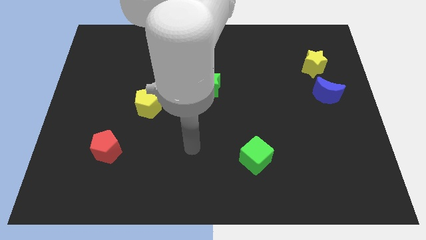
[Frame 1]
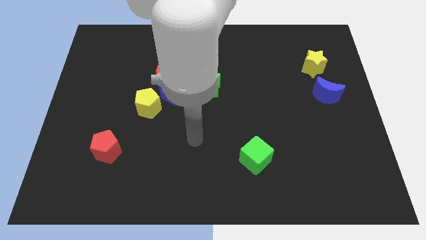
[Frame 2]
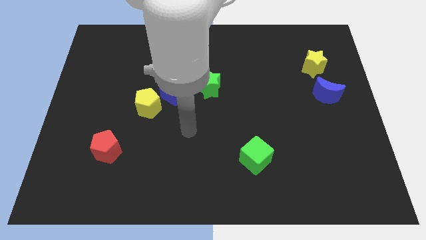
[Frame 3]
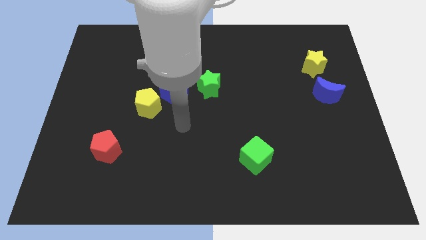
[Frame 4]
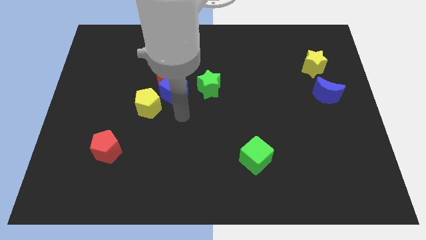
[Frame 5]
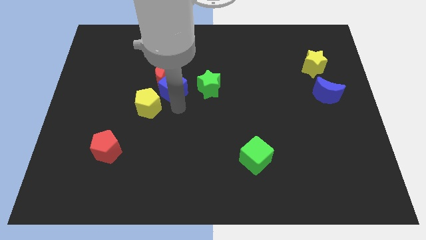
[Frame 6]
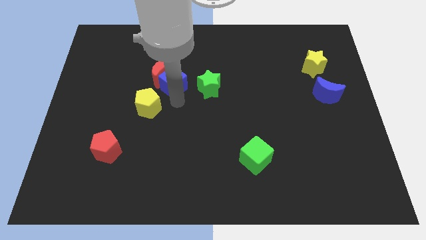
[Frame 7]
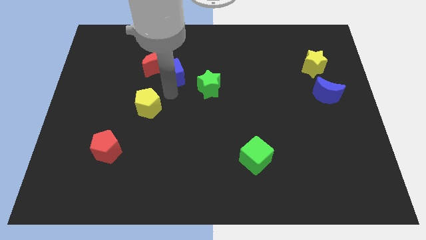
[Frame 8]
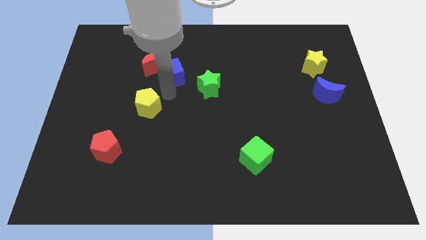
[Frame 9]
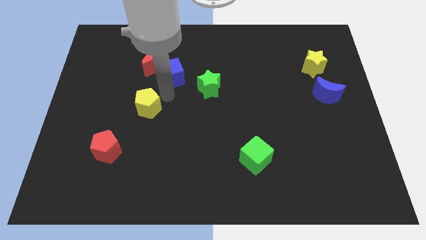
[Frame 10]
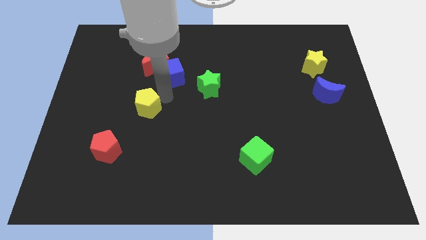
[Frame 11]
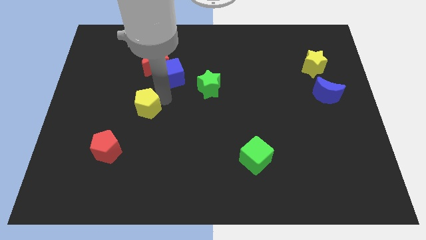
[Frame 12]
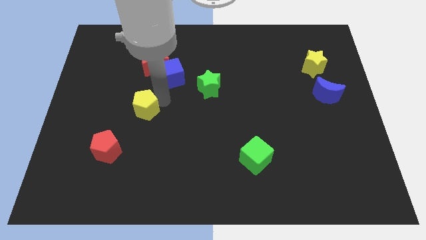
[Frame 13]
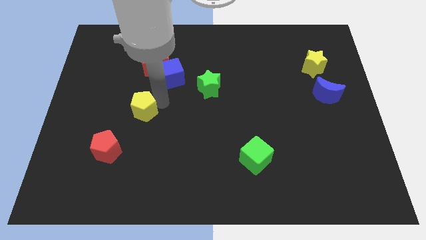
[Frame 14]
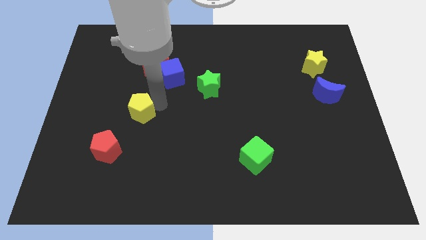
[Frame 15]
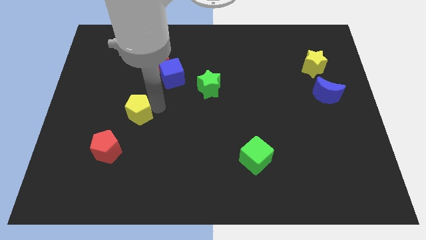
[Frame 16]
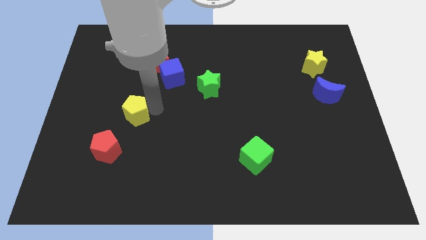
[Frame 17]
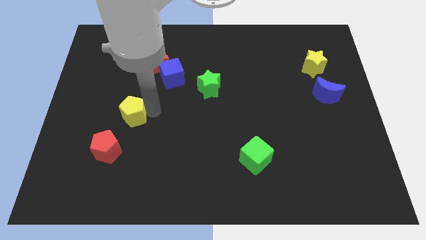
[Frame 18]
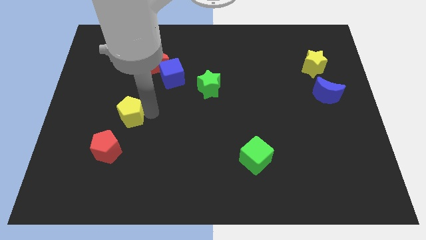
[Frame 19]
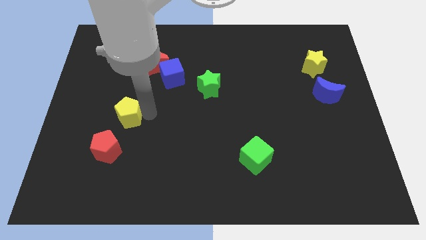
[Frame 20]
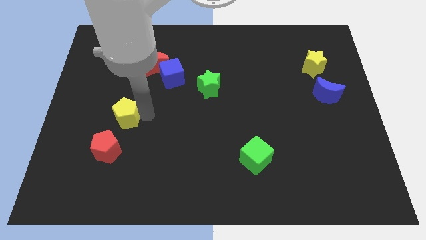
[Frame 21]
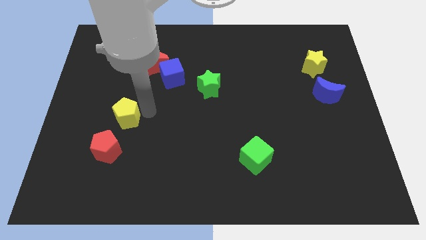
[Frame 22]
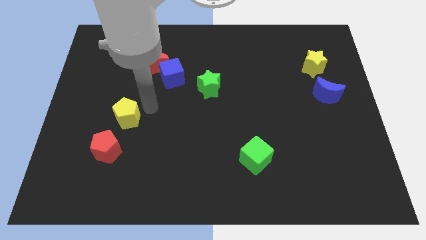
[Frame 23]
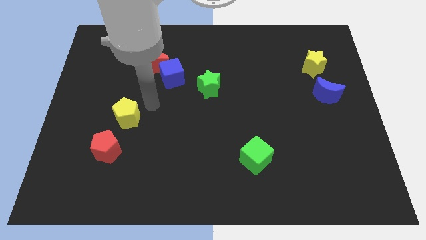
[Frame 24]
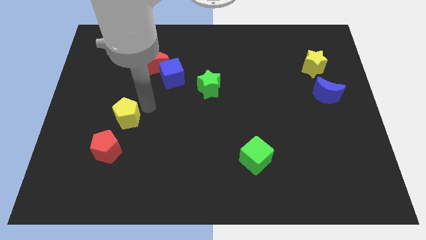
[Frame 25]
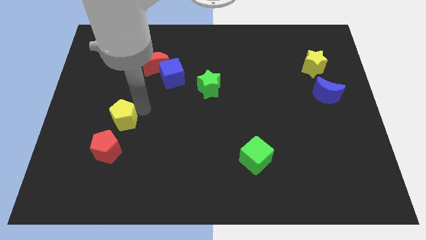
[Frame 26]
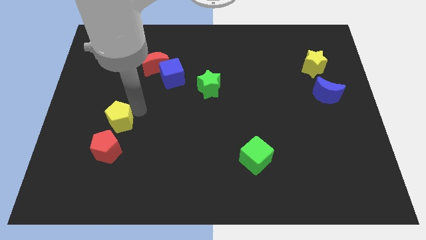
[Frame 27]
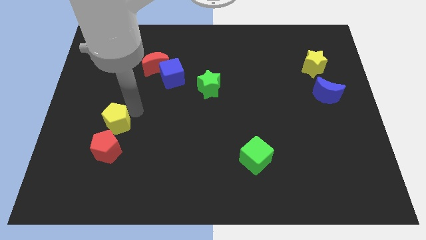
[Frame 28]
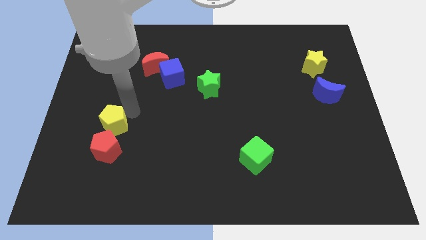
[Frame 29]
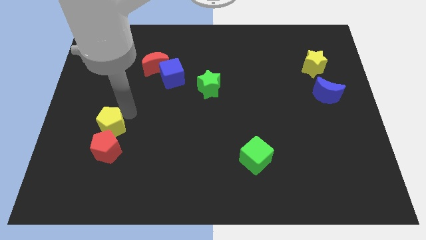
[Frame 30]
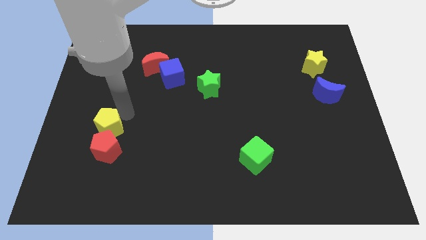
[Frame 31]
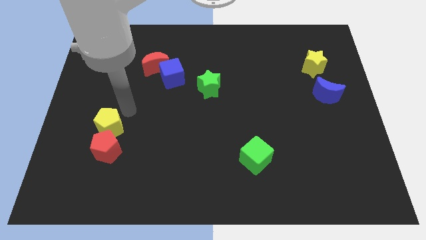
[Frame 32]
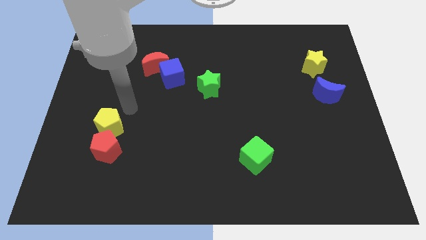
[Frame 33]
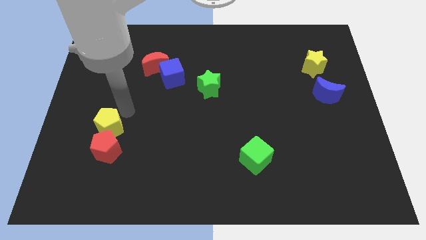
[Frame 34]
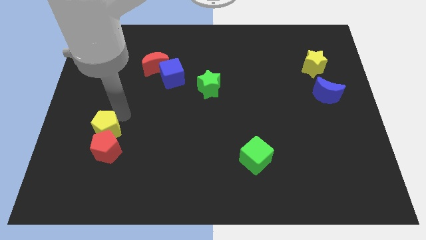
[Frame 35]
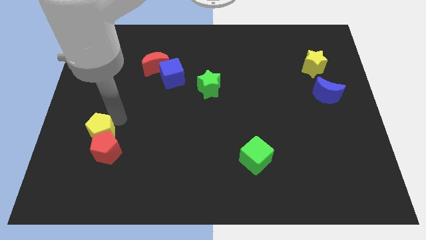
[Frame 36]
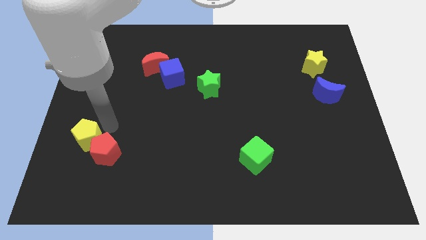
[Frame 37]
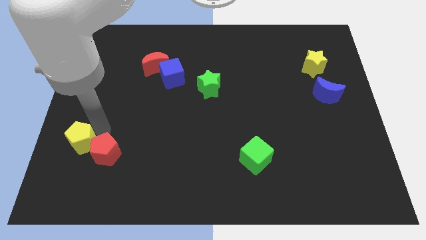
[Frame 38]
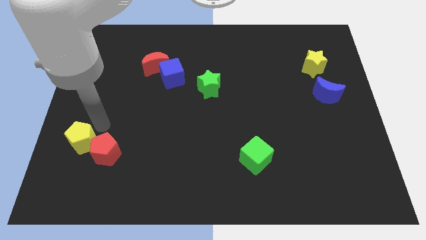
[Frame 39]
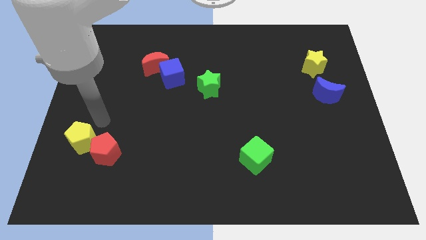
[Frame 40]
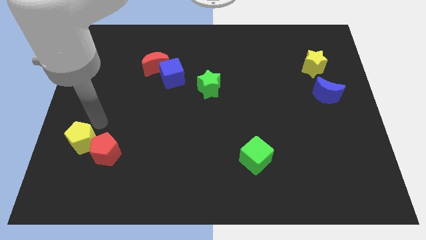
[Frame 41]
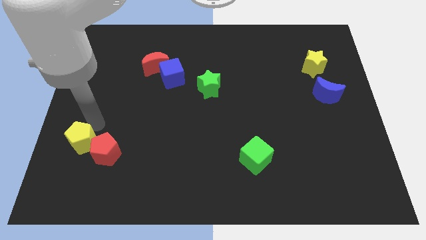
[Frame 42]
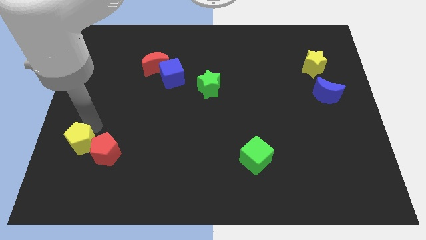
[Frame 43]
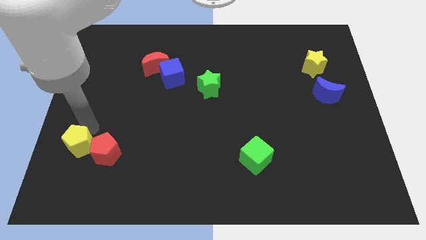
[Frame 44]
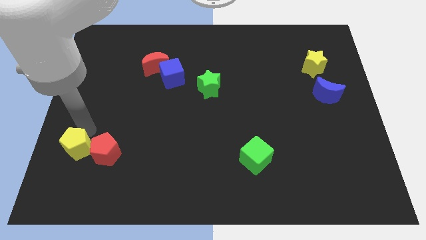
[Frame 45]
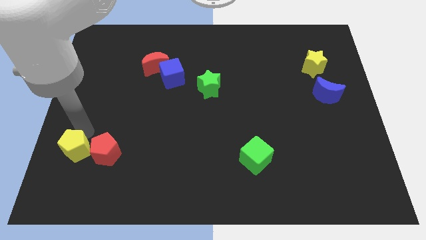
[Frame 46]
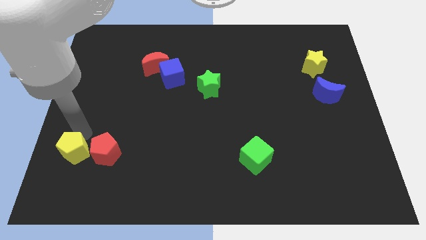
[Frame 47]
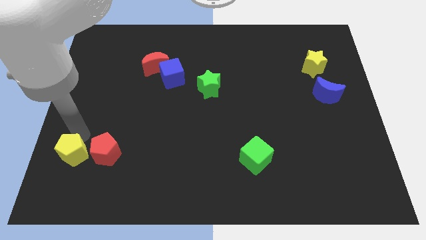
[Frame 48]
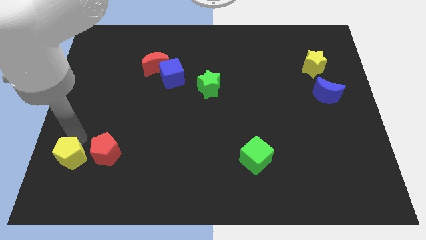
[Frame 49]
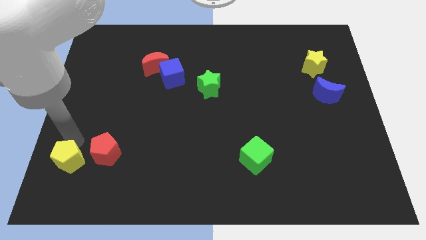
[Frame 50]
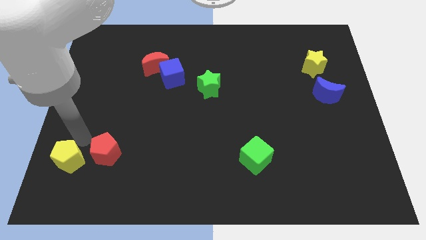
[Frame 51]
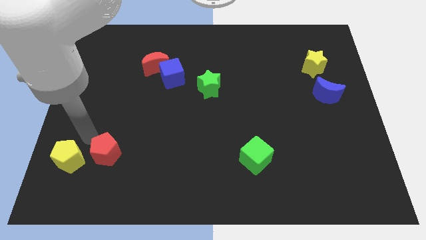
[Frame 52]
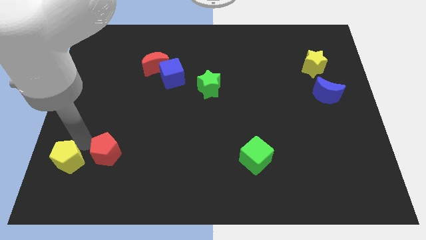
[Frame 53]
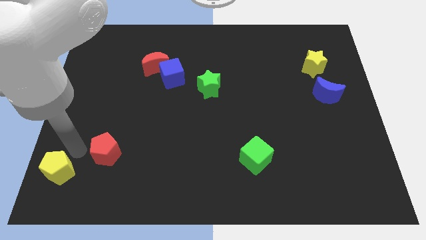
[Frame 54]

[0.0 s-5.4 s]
put the yellow pentagon to the bottom left

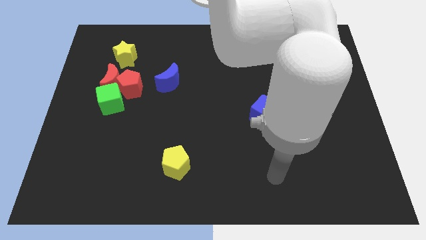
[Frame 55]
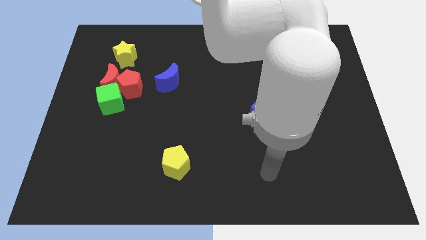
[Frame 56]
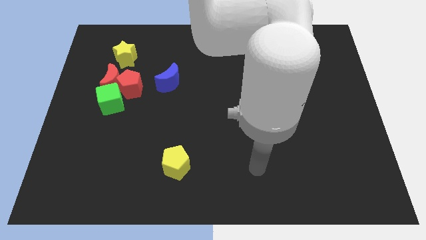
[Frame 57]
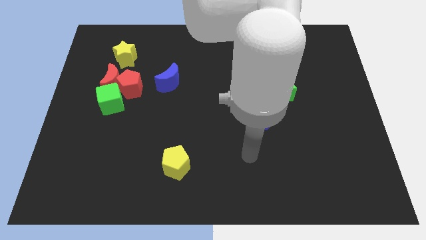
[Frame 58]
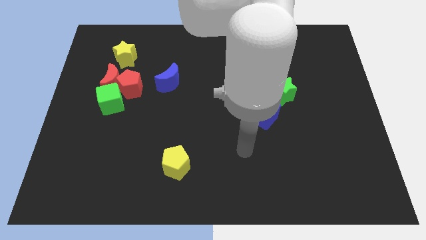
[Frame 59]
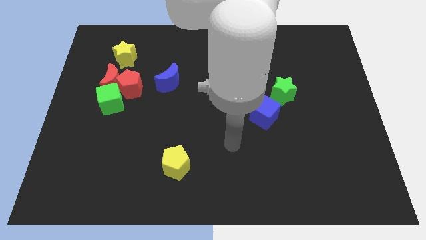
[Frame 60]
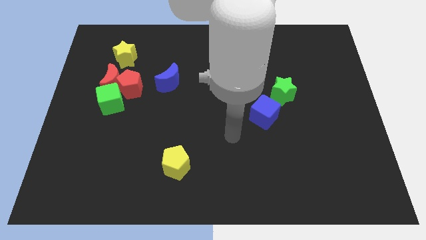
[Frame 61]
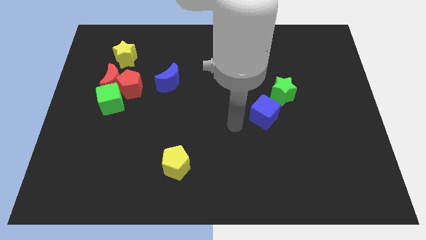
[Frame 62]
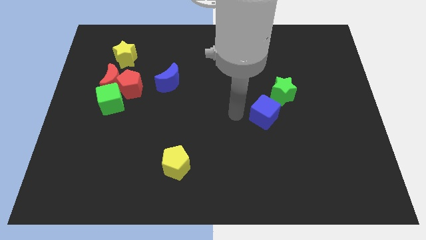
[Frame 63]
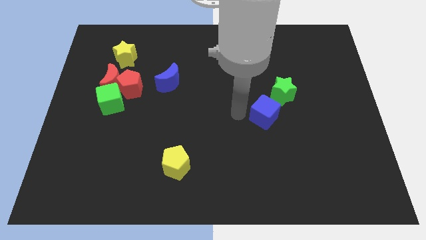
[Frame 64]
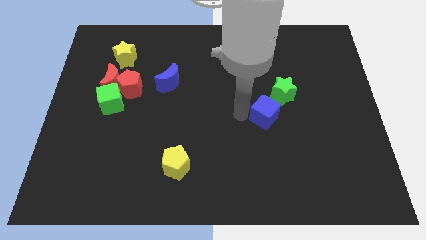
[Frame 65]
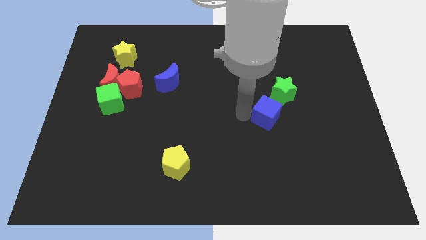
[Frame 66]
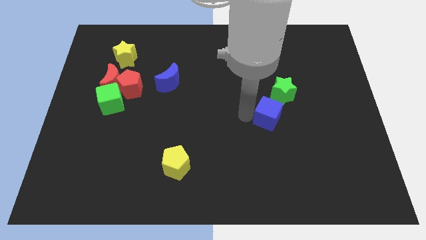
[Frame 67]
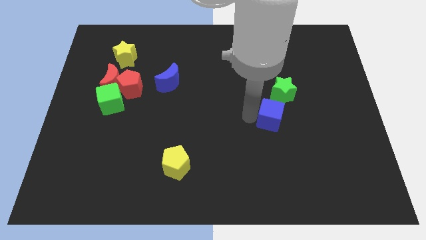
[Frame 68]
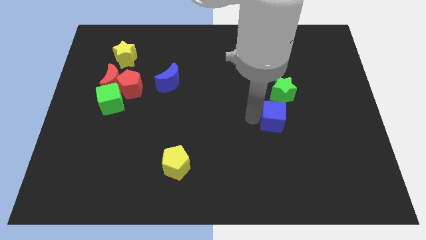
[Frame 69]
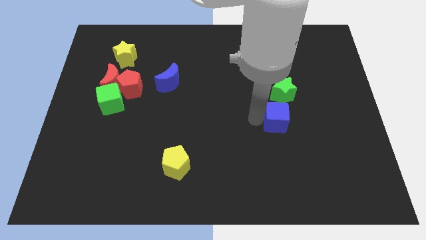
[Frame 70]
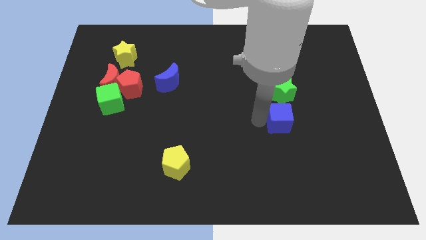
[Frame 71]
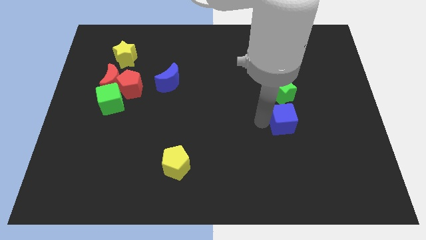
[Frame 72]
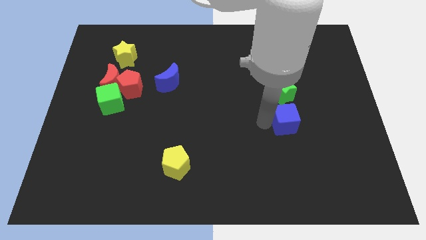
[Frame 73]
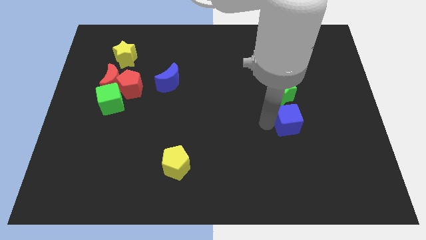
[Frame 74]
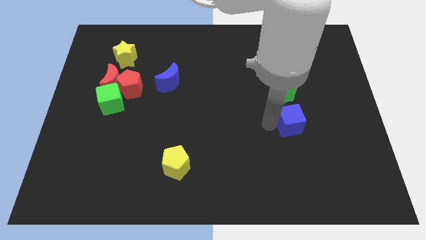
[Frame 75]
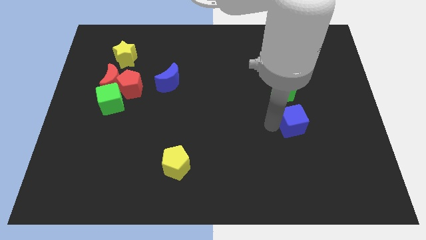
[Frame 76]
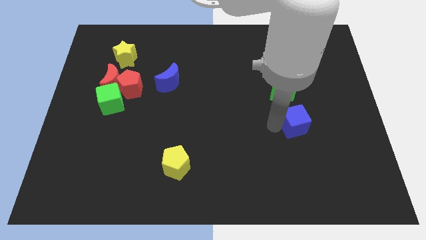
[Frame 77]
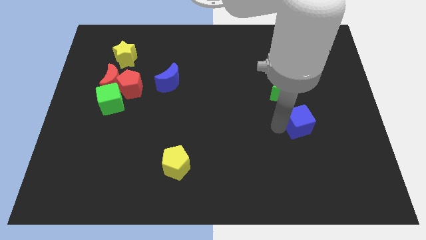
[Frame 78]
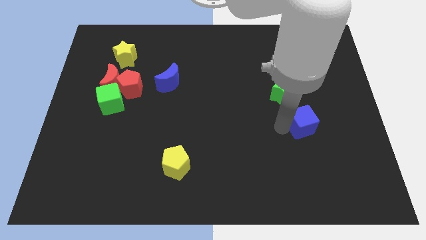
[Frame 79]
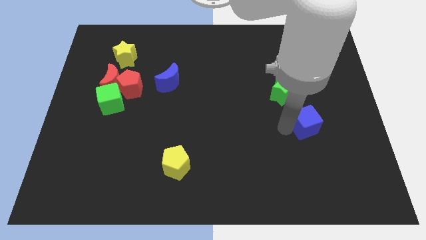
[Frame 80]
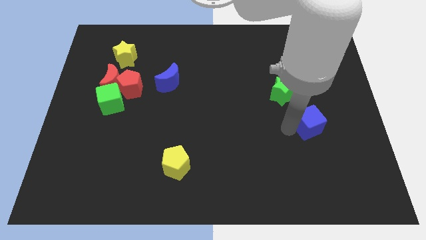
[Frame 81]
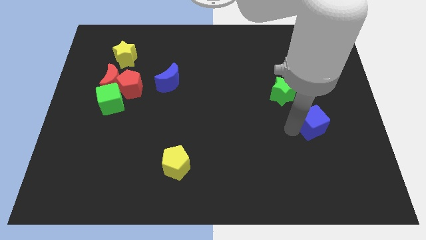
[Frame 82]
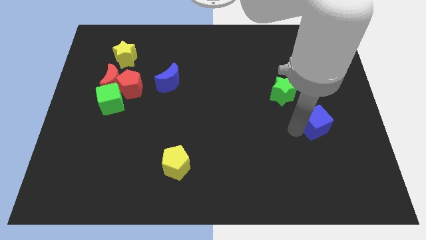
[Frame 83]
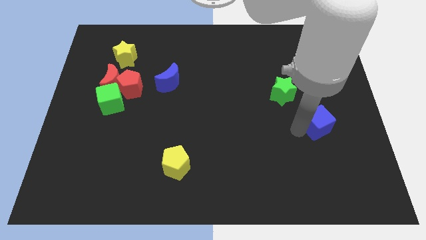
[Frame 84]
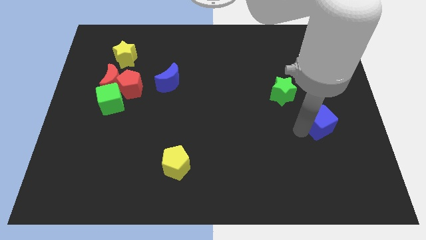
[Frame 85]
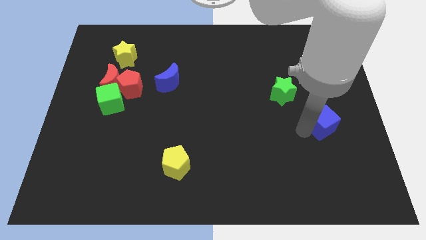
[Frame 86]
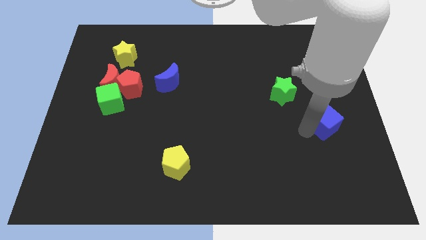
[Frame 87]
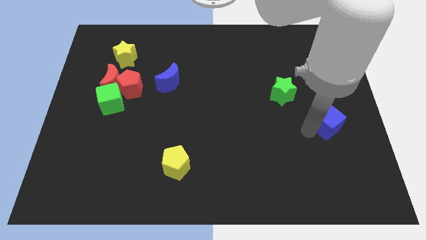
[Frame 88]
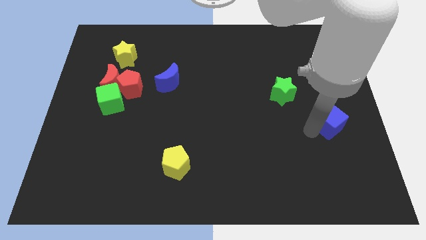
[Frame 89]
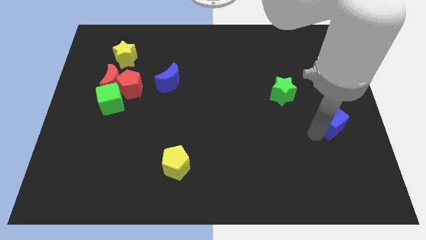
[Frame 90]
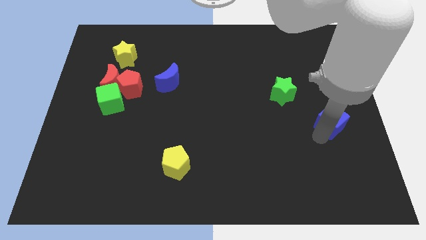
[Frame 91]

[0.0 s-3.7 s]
move the blue cube to the center right
